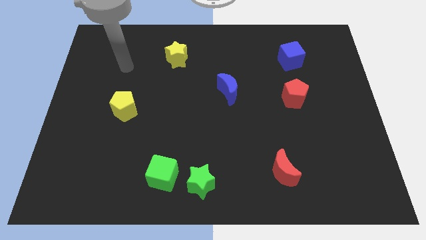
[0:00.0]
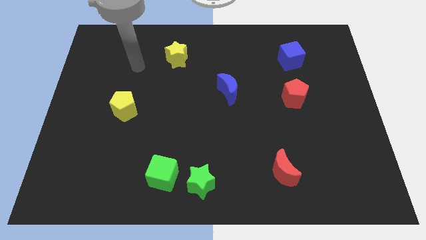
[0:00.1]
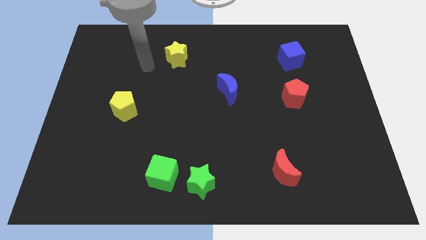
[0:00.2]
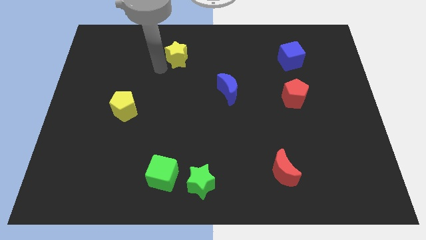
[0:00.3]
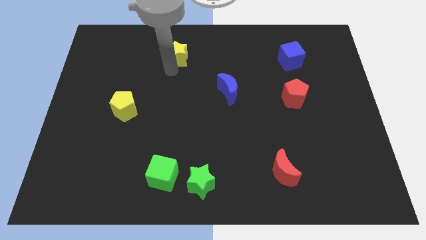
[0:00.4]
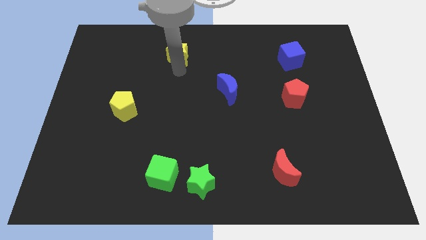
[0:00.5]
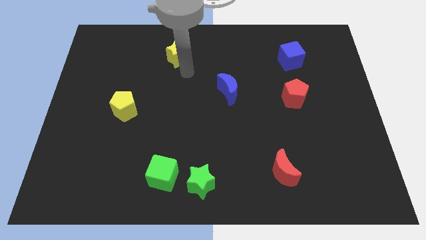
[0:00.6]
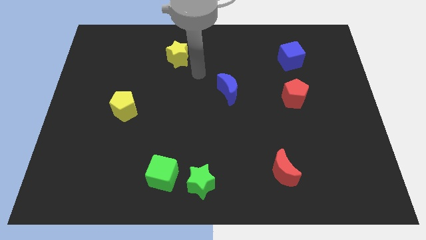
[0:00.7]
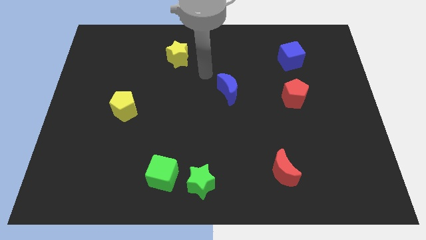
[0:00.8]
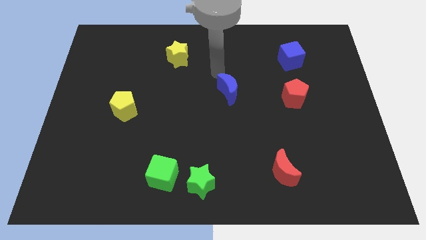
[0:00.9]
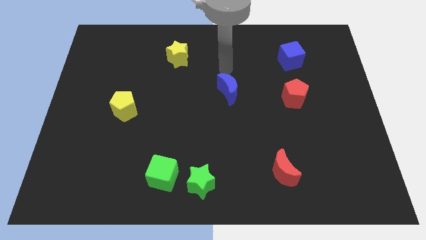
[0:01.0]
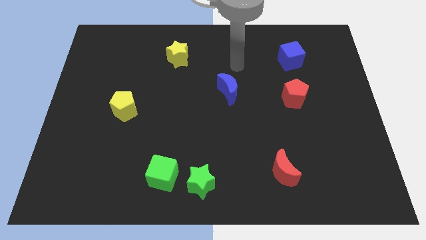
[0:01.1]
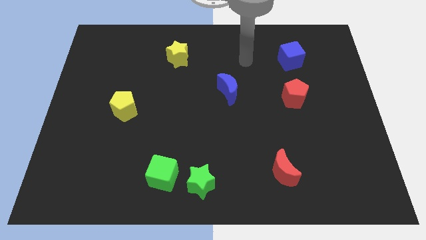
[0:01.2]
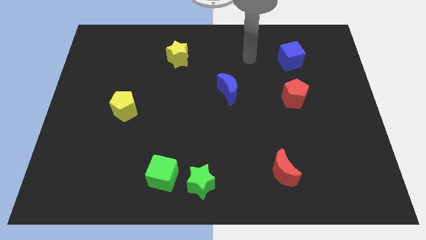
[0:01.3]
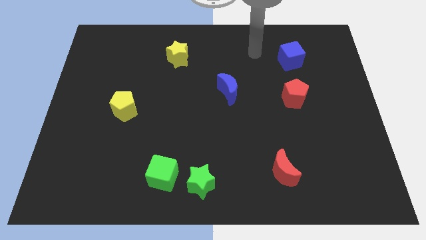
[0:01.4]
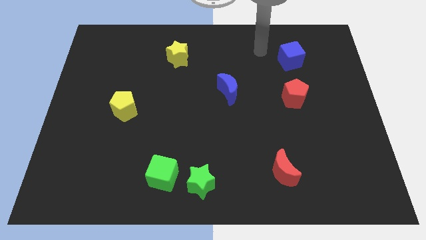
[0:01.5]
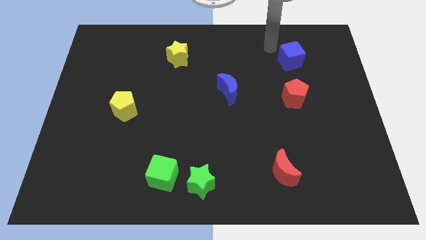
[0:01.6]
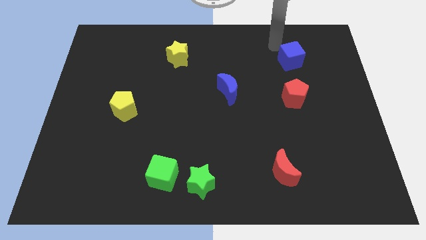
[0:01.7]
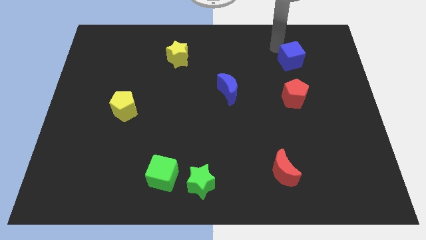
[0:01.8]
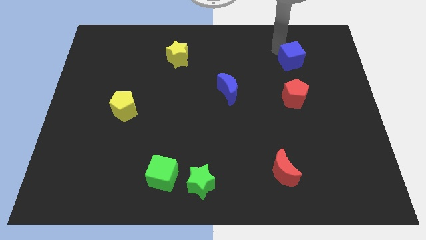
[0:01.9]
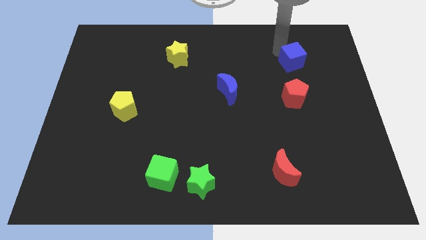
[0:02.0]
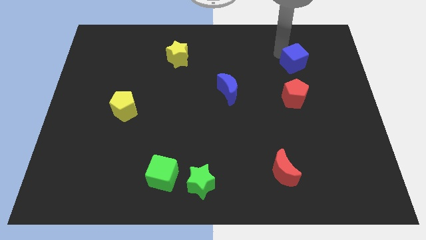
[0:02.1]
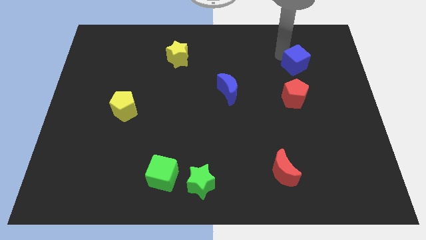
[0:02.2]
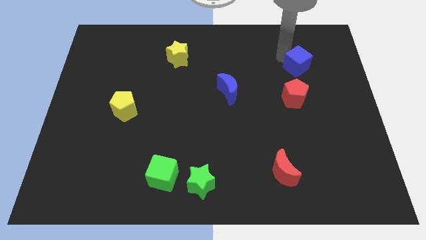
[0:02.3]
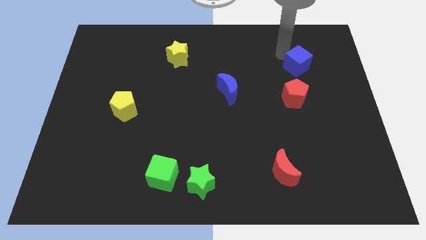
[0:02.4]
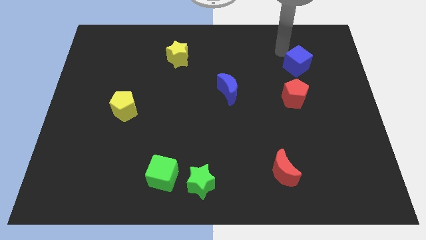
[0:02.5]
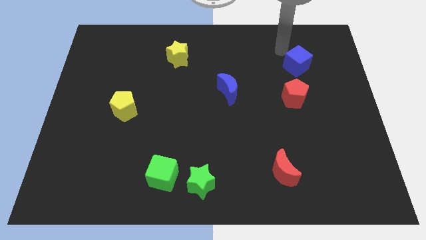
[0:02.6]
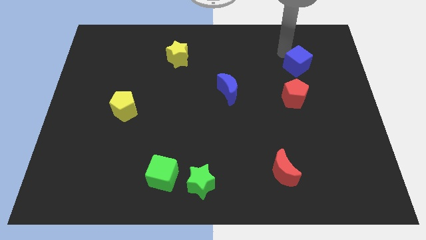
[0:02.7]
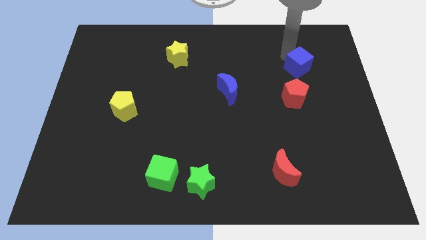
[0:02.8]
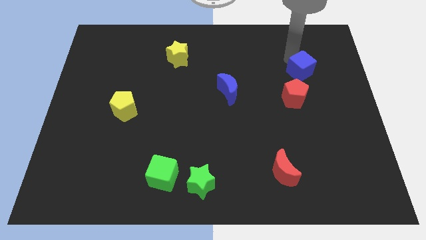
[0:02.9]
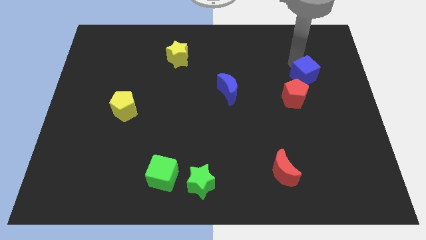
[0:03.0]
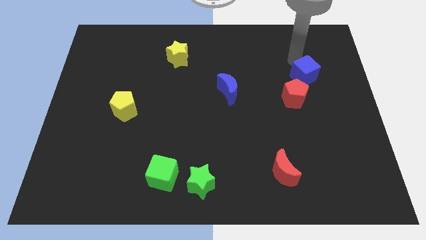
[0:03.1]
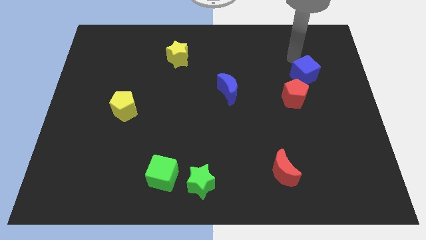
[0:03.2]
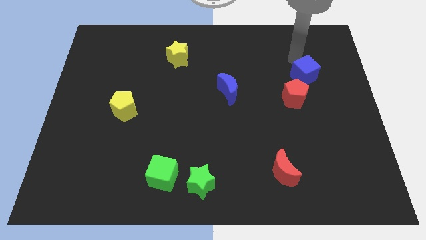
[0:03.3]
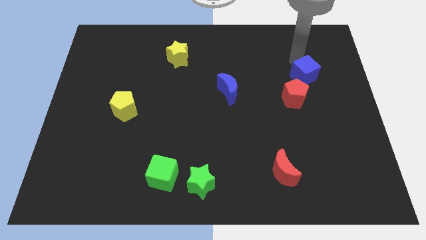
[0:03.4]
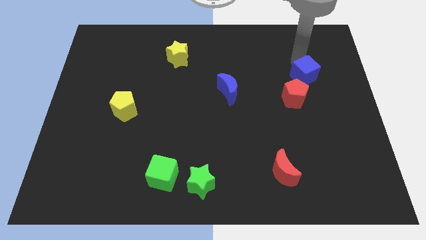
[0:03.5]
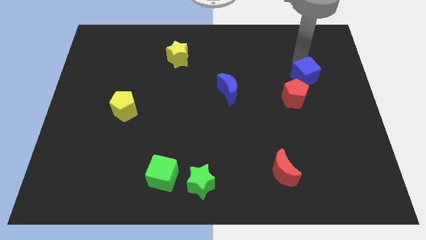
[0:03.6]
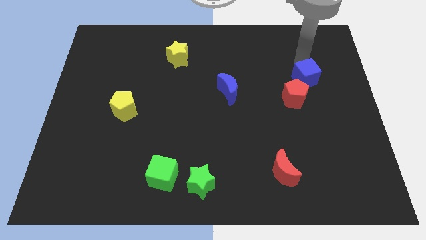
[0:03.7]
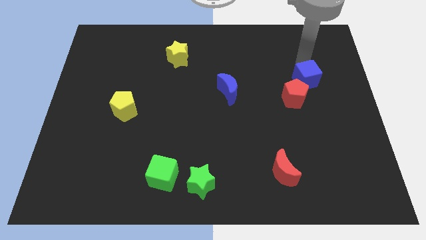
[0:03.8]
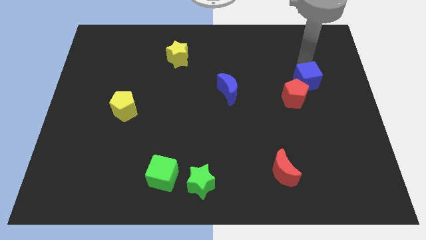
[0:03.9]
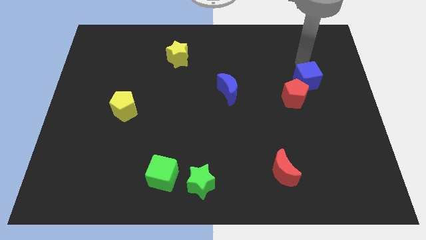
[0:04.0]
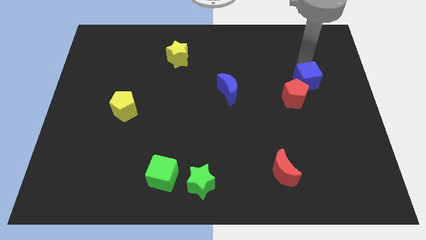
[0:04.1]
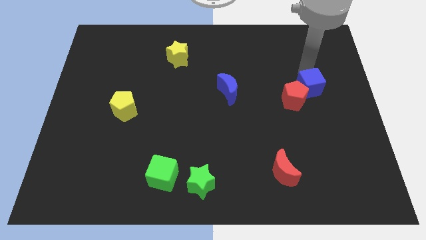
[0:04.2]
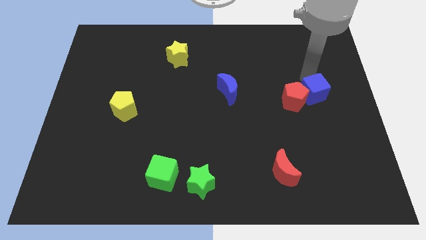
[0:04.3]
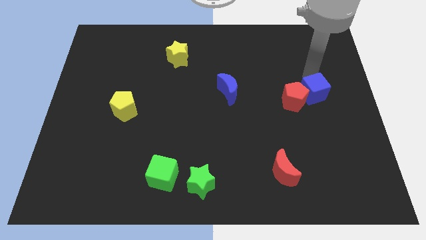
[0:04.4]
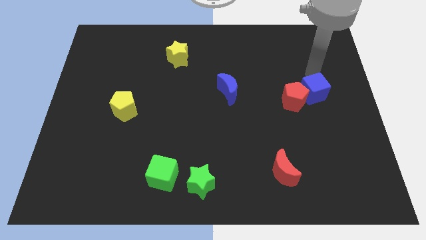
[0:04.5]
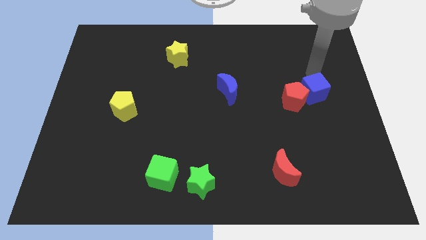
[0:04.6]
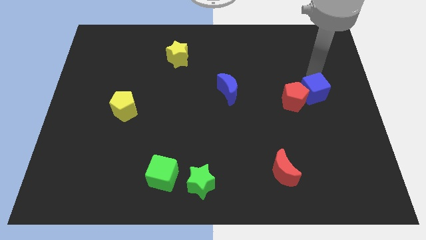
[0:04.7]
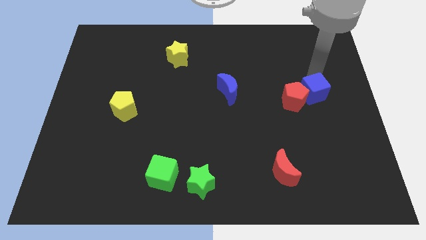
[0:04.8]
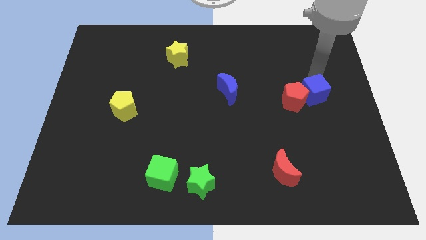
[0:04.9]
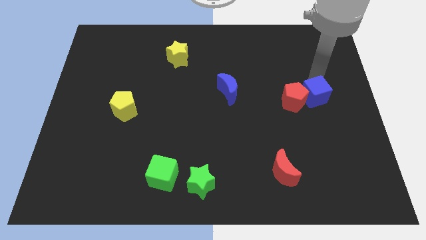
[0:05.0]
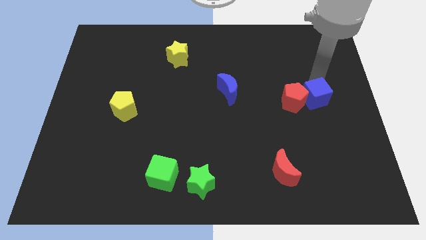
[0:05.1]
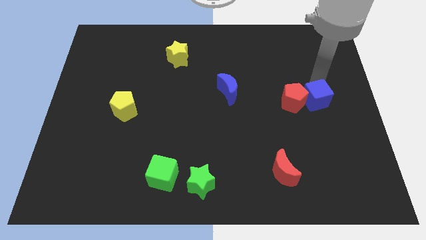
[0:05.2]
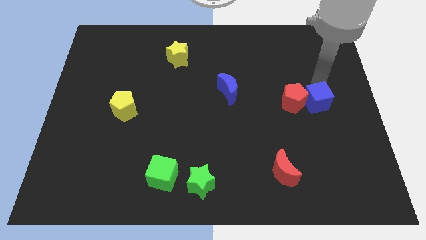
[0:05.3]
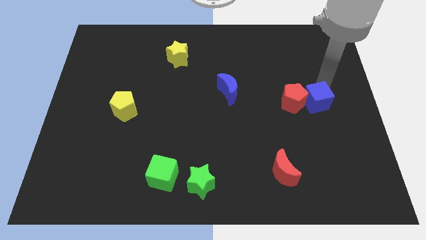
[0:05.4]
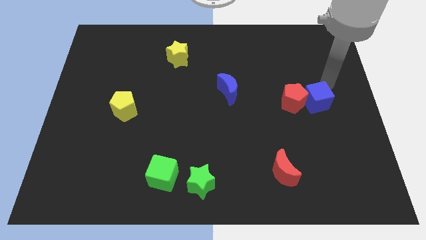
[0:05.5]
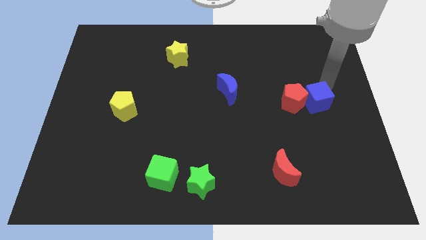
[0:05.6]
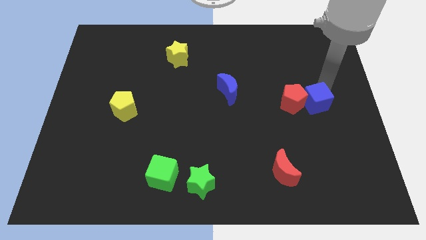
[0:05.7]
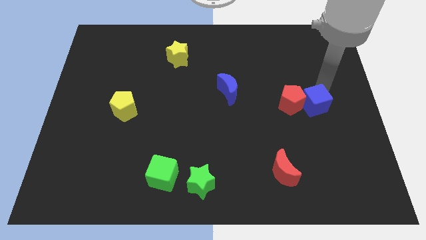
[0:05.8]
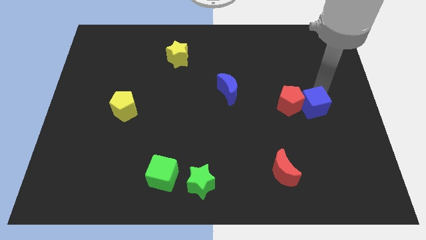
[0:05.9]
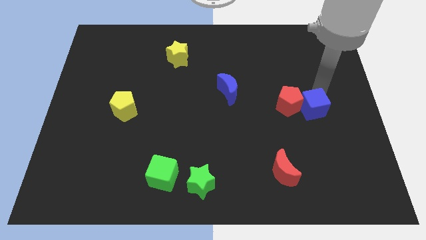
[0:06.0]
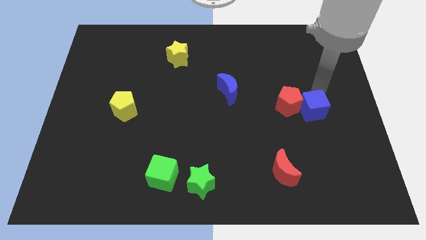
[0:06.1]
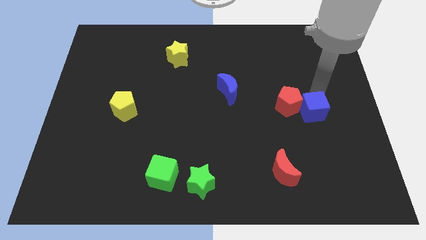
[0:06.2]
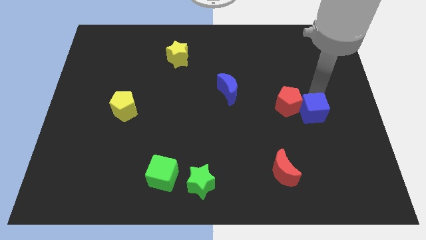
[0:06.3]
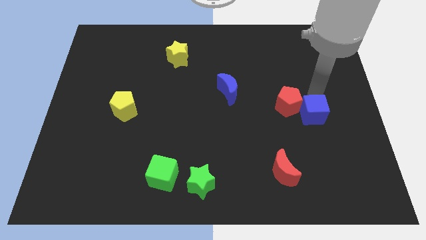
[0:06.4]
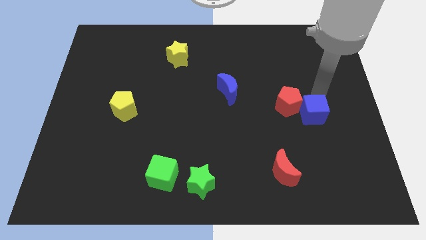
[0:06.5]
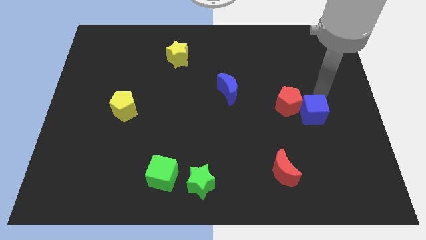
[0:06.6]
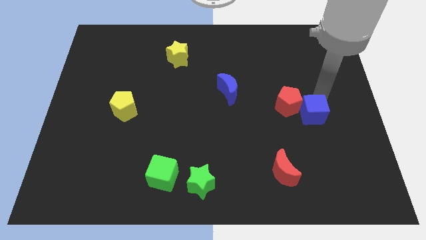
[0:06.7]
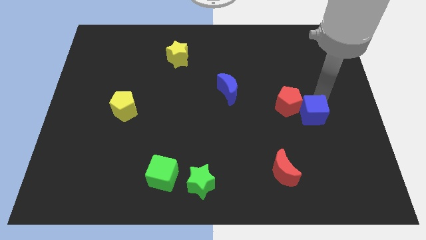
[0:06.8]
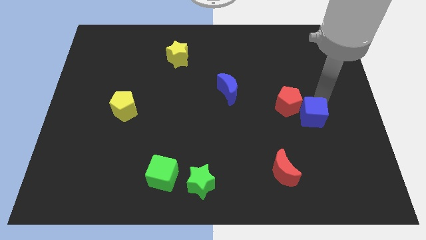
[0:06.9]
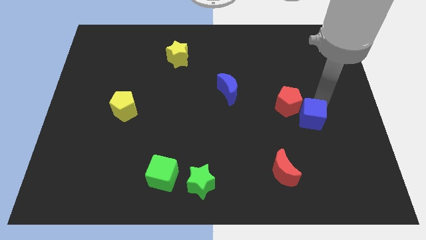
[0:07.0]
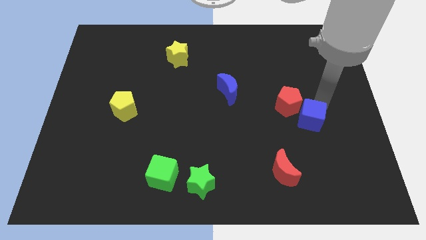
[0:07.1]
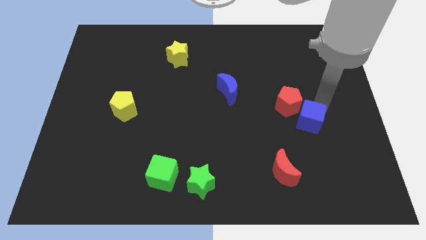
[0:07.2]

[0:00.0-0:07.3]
move the blue cube downwards

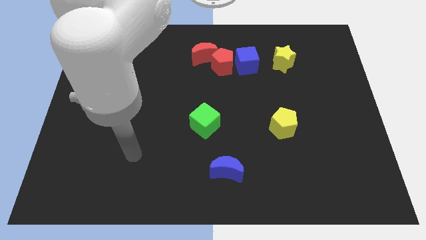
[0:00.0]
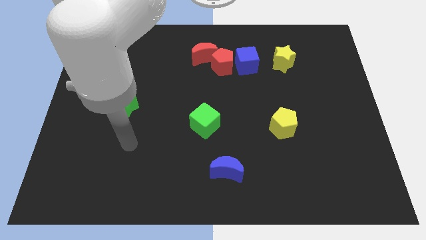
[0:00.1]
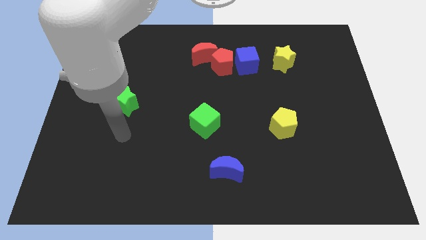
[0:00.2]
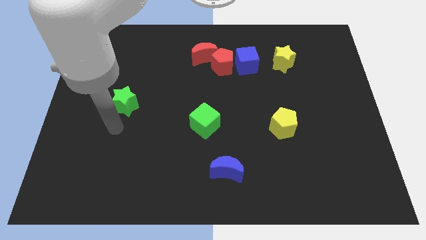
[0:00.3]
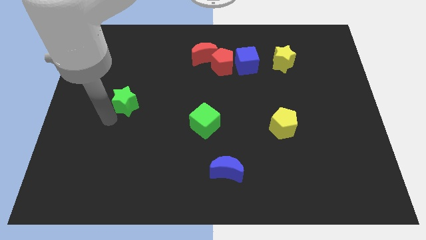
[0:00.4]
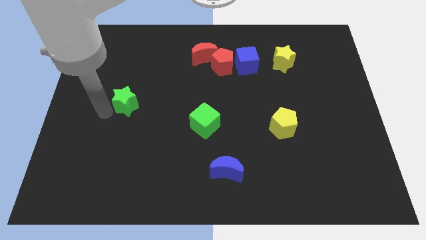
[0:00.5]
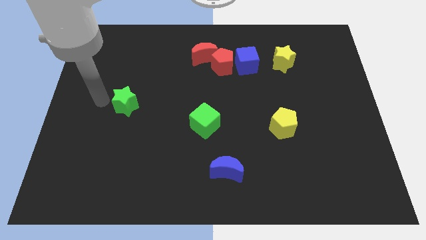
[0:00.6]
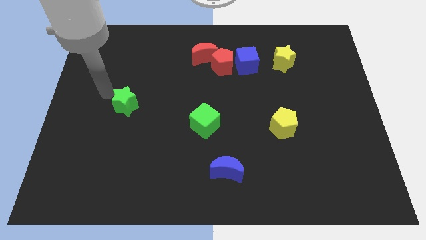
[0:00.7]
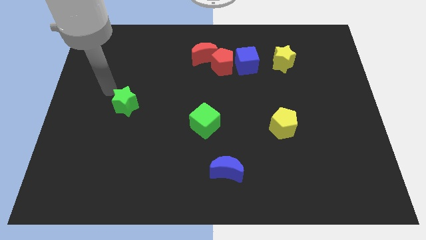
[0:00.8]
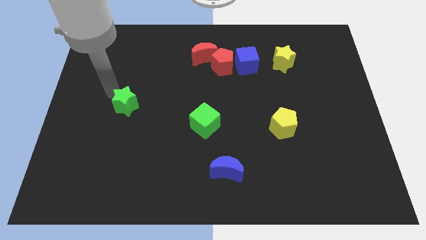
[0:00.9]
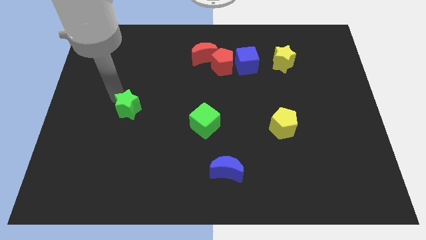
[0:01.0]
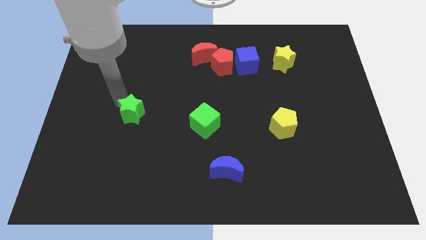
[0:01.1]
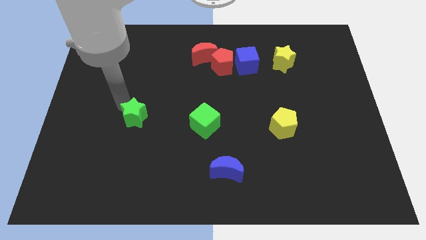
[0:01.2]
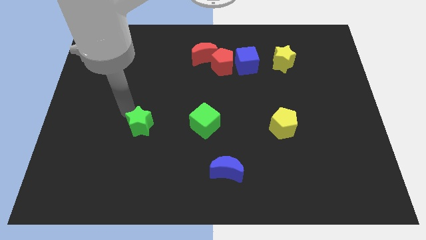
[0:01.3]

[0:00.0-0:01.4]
move the green star downwards and then right a little bit
